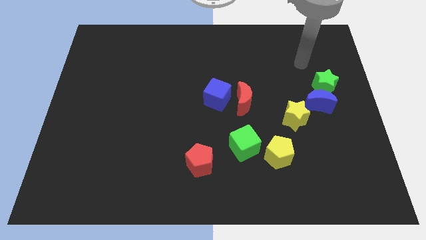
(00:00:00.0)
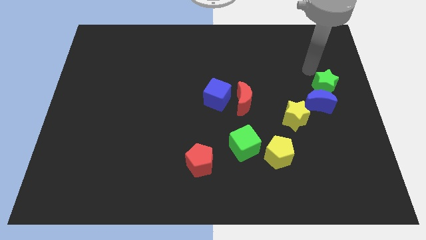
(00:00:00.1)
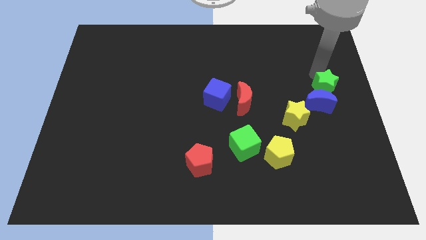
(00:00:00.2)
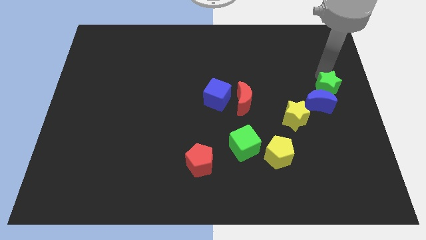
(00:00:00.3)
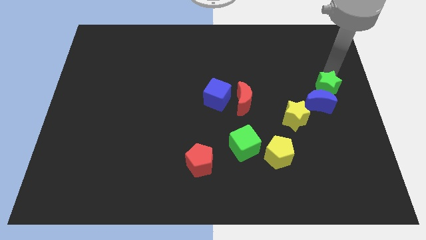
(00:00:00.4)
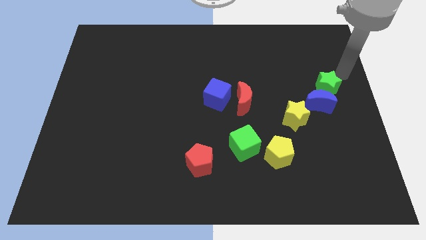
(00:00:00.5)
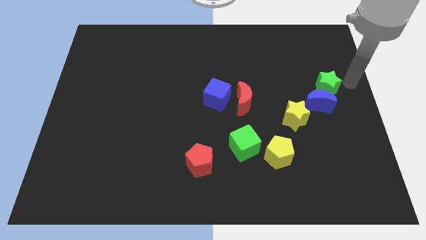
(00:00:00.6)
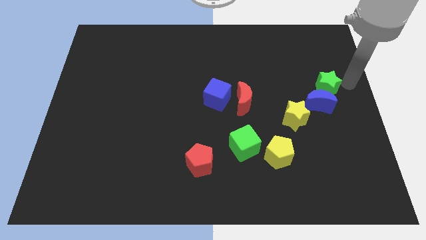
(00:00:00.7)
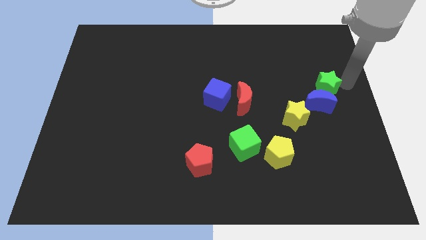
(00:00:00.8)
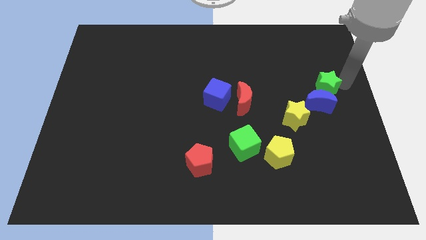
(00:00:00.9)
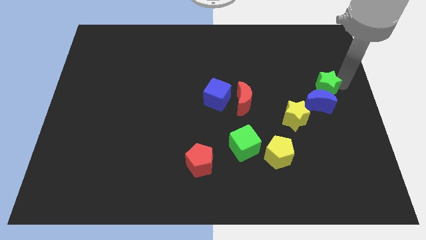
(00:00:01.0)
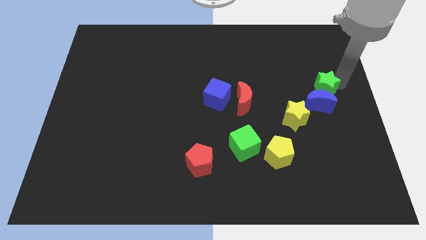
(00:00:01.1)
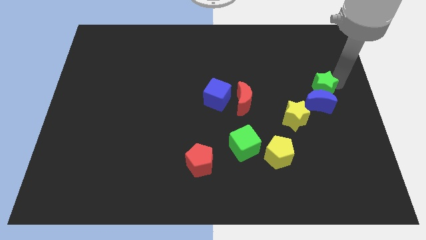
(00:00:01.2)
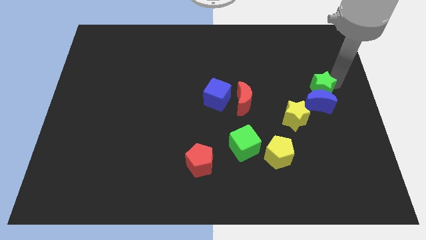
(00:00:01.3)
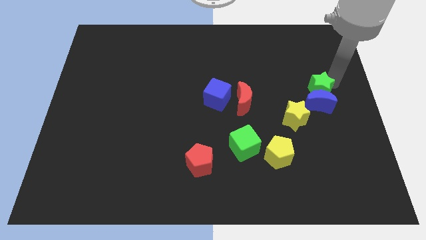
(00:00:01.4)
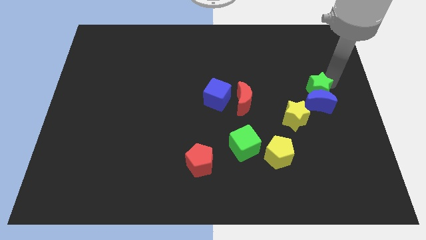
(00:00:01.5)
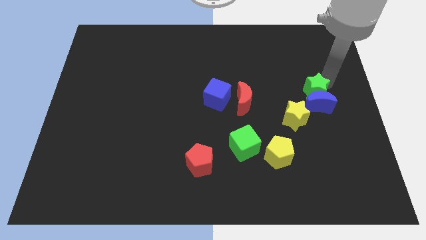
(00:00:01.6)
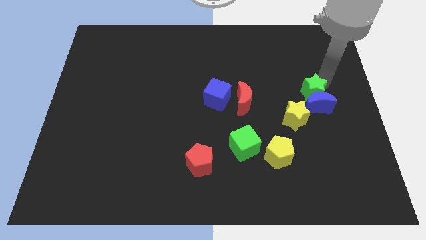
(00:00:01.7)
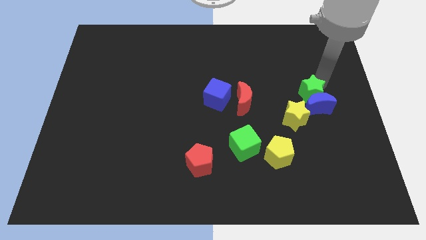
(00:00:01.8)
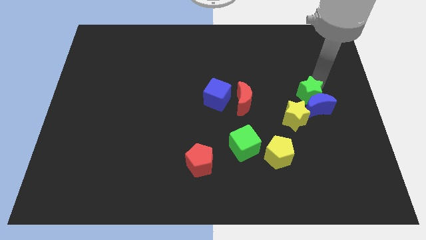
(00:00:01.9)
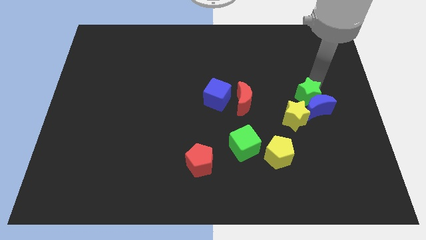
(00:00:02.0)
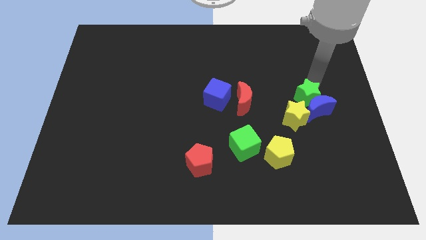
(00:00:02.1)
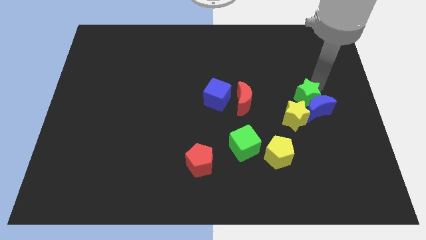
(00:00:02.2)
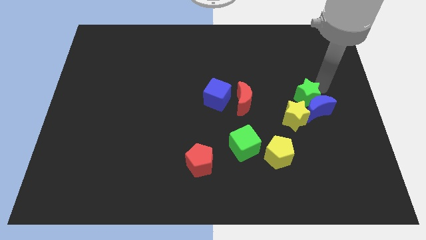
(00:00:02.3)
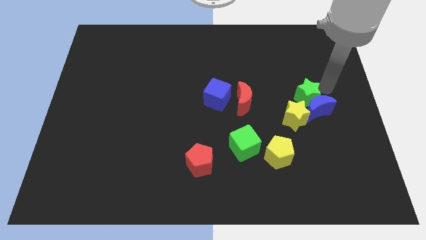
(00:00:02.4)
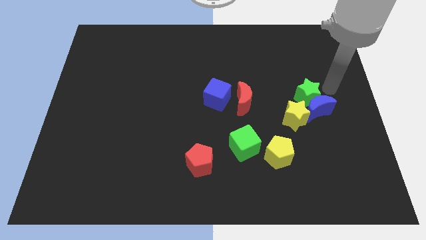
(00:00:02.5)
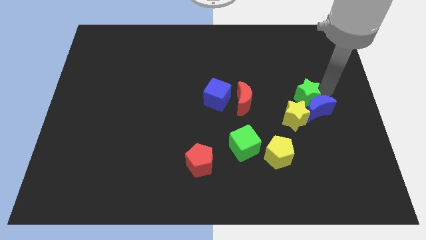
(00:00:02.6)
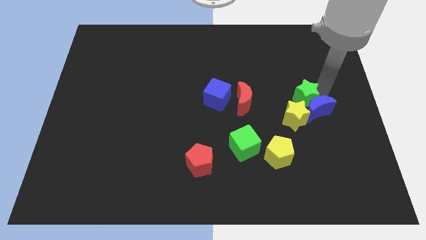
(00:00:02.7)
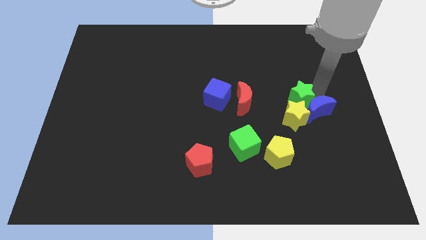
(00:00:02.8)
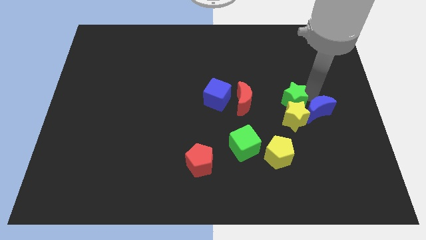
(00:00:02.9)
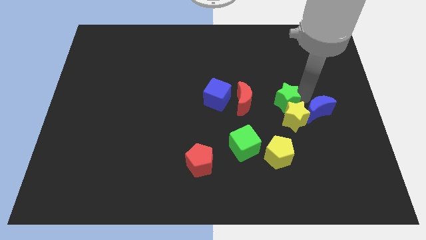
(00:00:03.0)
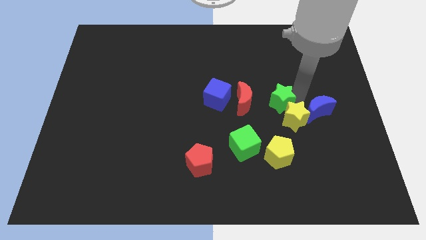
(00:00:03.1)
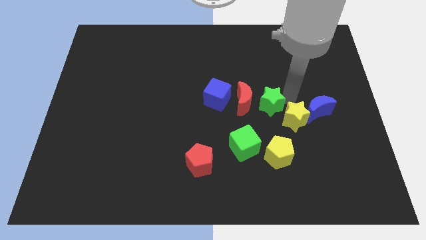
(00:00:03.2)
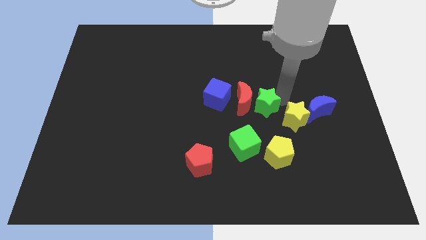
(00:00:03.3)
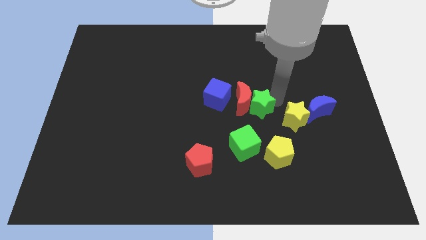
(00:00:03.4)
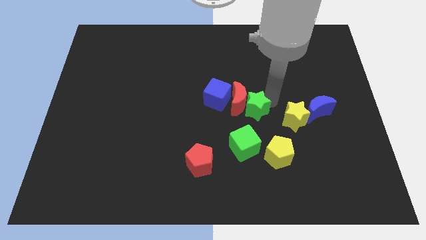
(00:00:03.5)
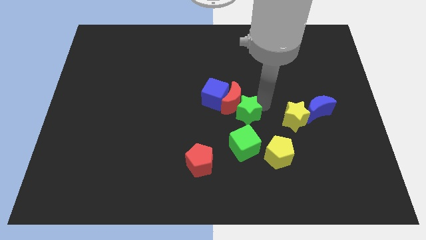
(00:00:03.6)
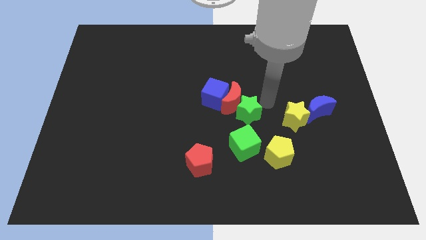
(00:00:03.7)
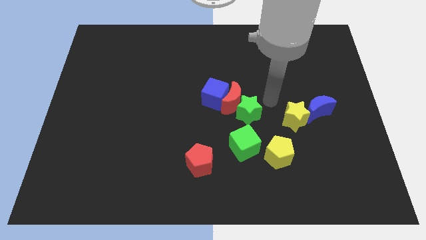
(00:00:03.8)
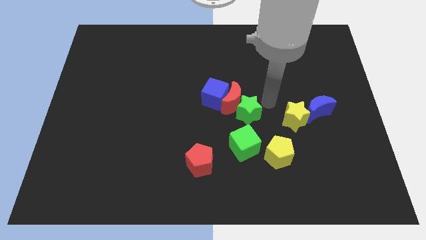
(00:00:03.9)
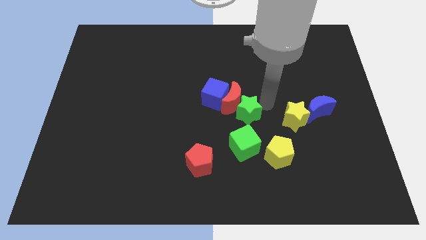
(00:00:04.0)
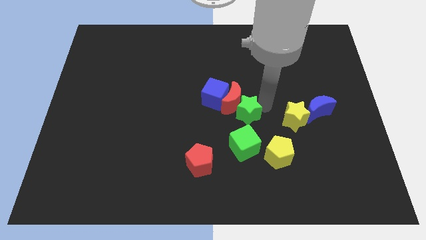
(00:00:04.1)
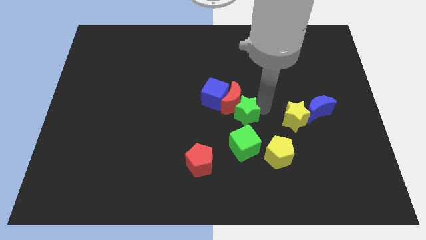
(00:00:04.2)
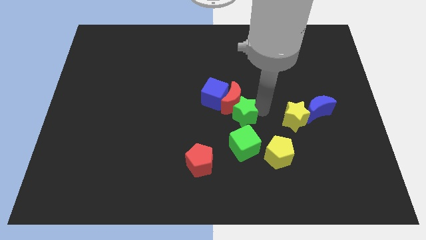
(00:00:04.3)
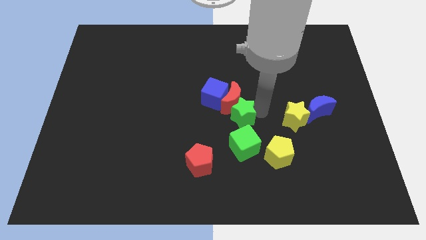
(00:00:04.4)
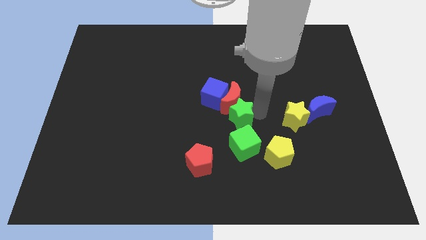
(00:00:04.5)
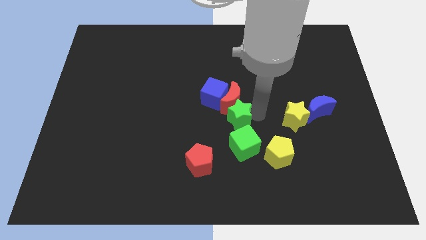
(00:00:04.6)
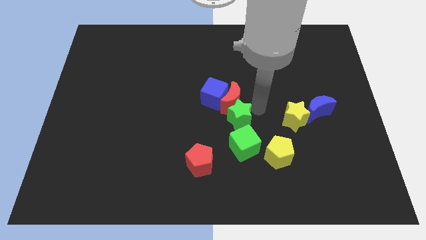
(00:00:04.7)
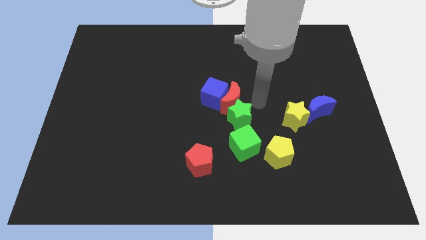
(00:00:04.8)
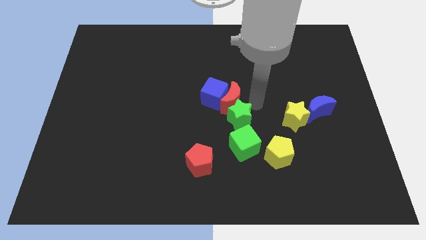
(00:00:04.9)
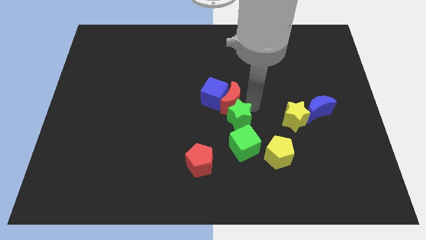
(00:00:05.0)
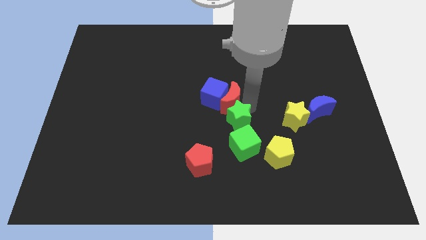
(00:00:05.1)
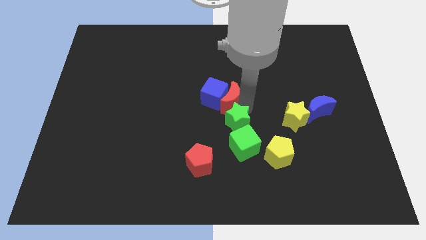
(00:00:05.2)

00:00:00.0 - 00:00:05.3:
push the green star downwards and to the left

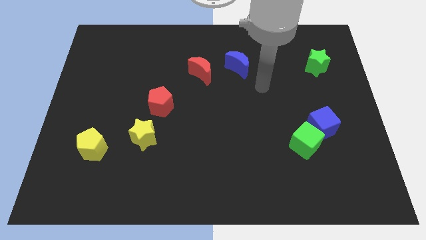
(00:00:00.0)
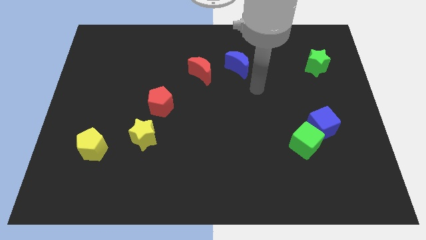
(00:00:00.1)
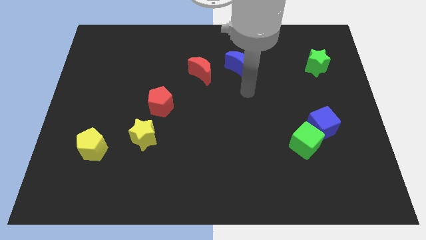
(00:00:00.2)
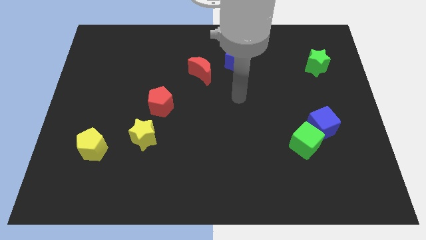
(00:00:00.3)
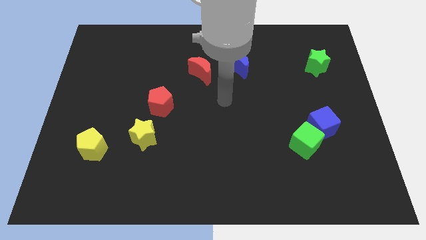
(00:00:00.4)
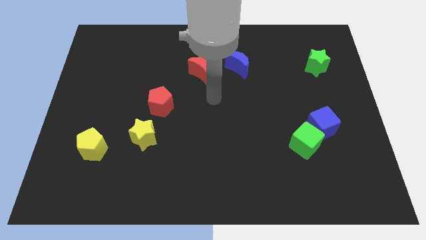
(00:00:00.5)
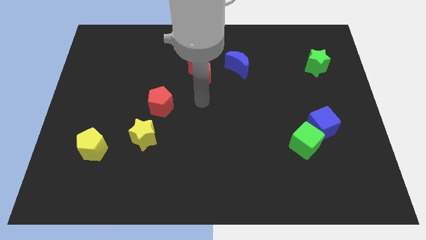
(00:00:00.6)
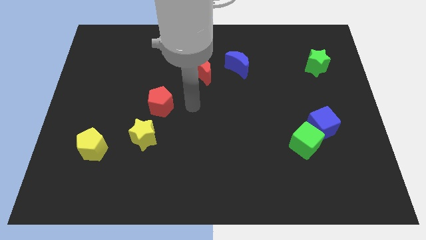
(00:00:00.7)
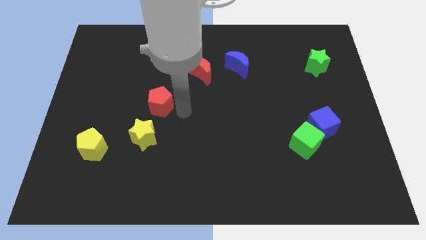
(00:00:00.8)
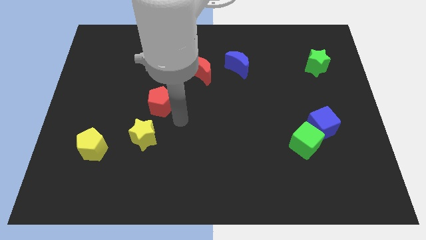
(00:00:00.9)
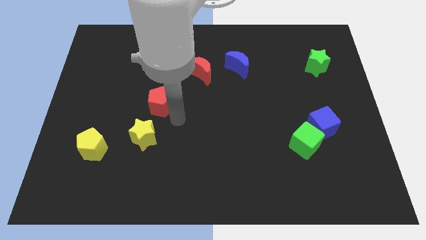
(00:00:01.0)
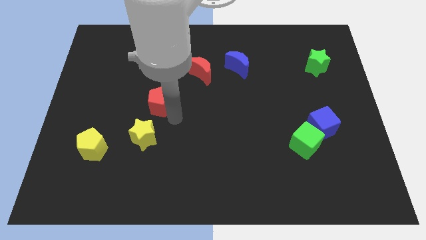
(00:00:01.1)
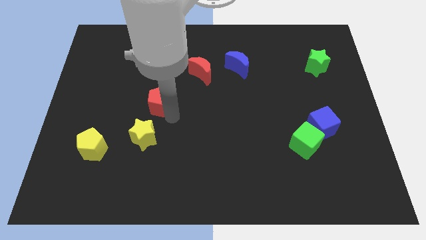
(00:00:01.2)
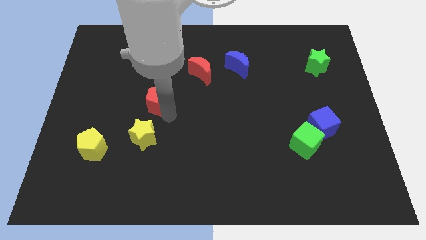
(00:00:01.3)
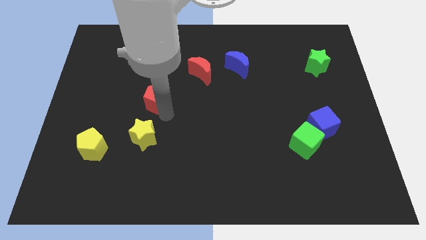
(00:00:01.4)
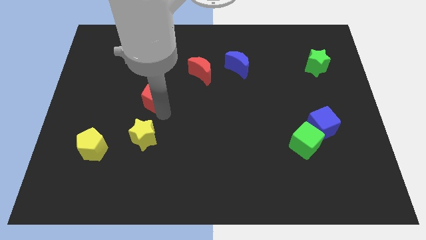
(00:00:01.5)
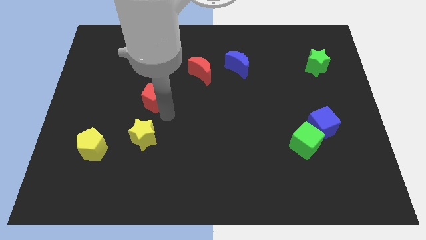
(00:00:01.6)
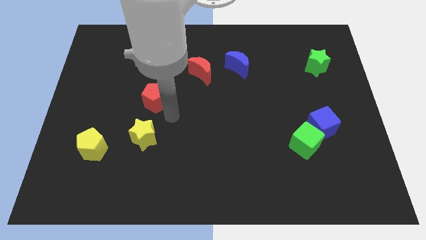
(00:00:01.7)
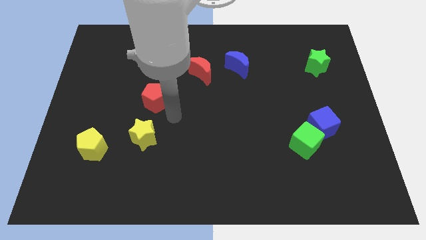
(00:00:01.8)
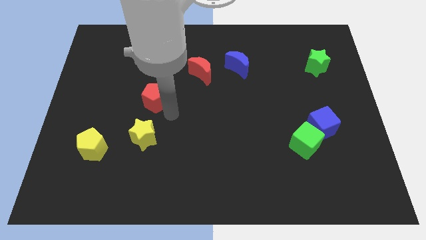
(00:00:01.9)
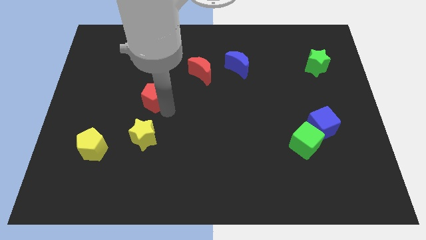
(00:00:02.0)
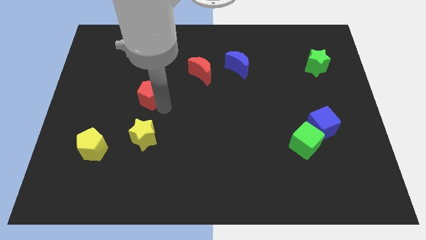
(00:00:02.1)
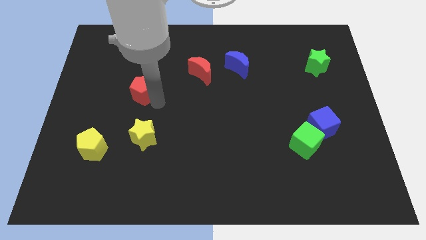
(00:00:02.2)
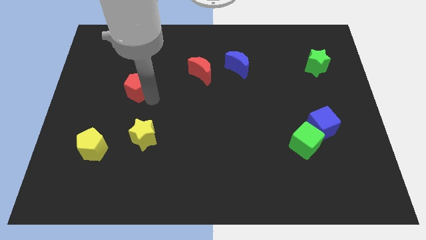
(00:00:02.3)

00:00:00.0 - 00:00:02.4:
push the red pentagon a bit diagonally up and to the left

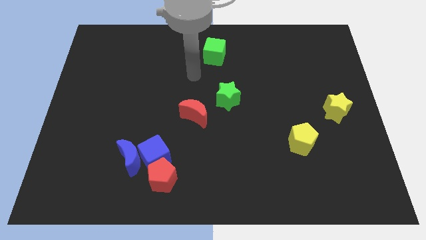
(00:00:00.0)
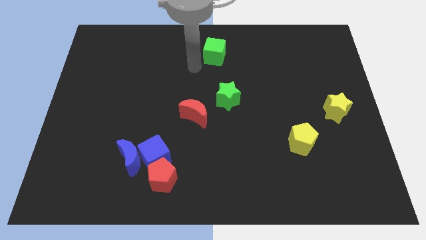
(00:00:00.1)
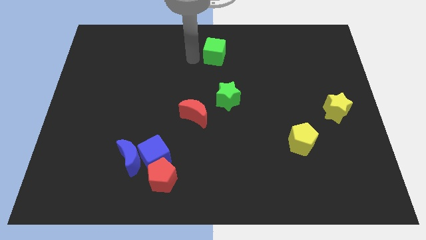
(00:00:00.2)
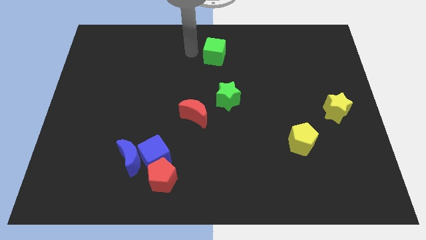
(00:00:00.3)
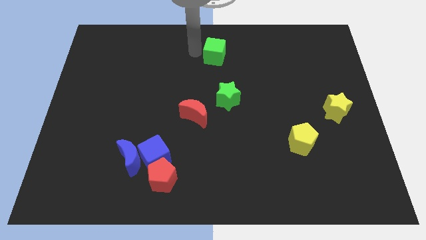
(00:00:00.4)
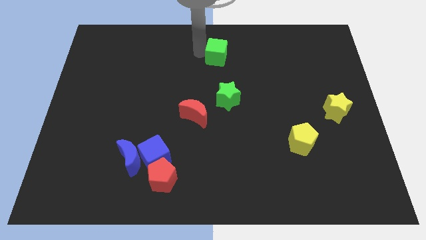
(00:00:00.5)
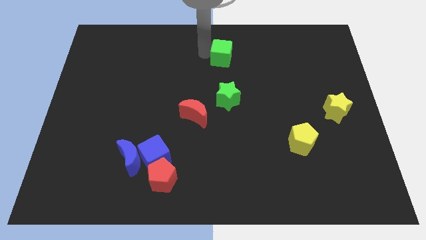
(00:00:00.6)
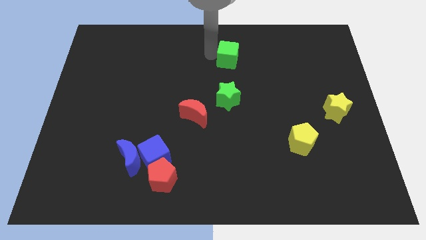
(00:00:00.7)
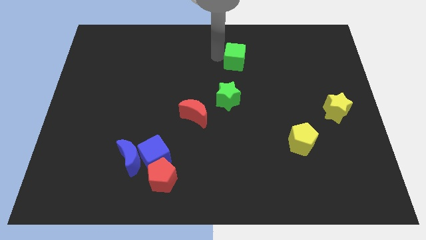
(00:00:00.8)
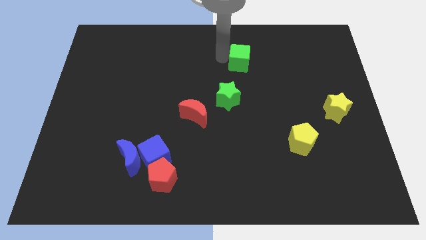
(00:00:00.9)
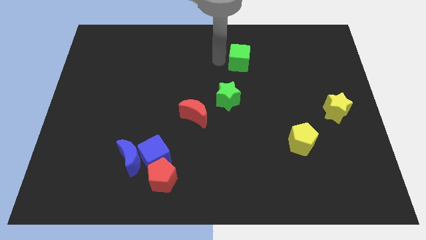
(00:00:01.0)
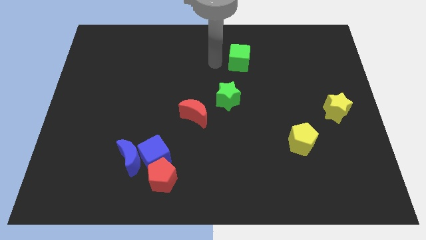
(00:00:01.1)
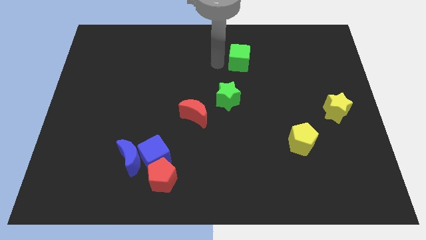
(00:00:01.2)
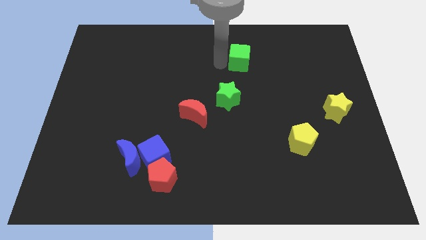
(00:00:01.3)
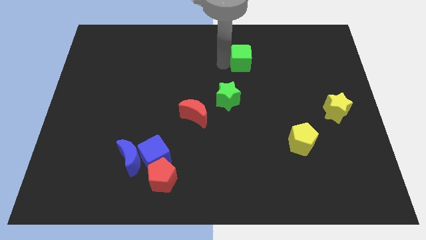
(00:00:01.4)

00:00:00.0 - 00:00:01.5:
slightly slide the green cube to the right
